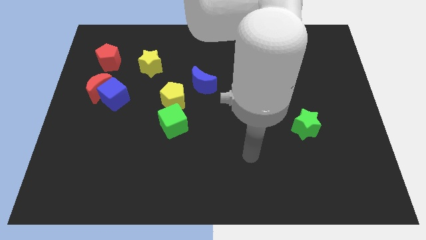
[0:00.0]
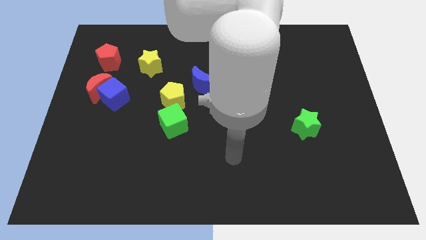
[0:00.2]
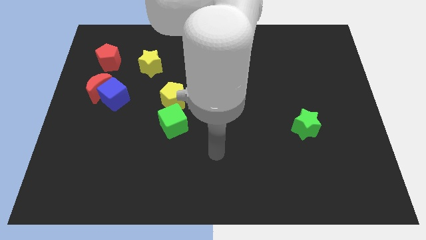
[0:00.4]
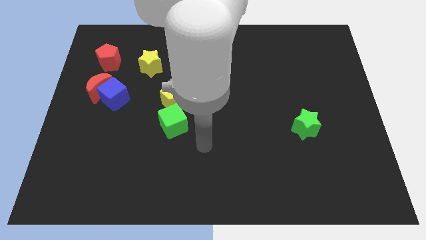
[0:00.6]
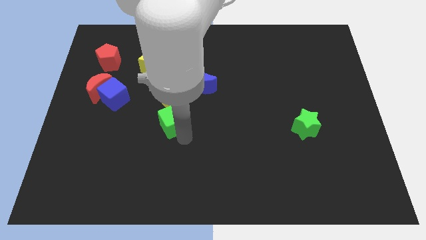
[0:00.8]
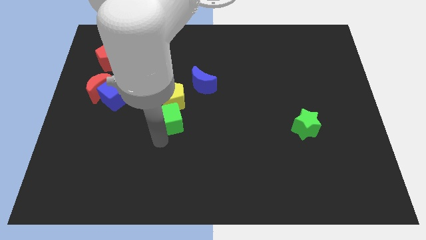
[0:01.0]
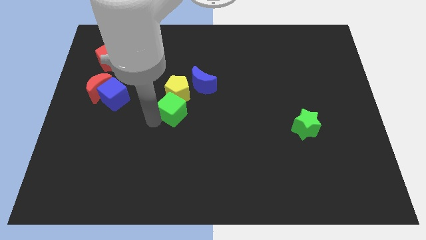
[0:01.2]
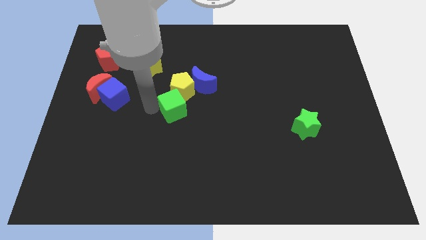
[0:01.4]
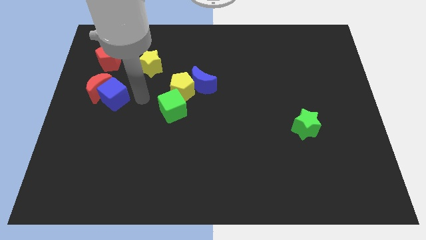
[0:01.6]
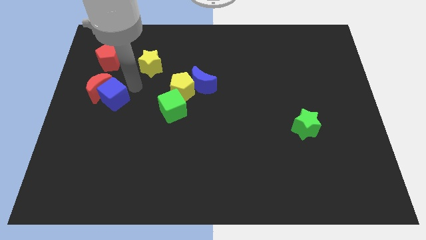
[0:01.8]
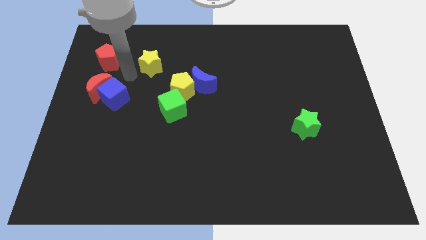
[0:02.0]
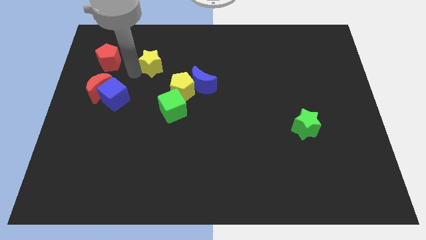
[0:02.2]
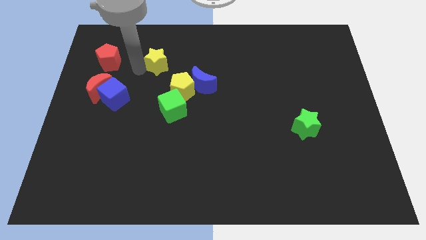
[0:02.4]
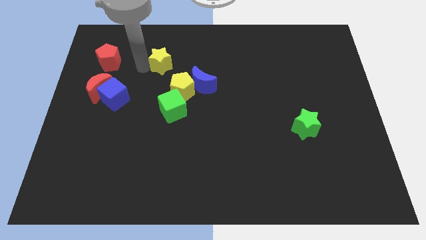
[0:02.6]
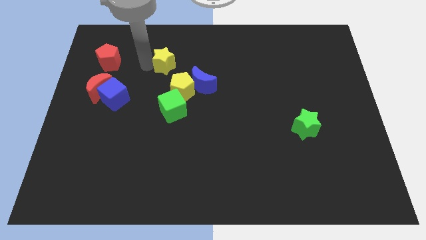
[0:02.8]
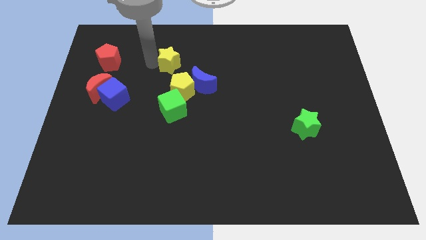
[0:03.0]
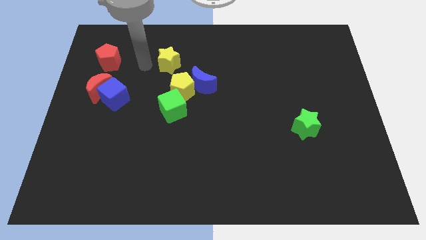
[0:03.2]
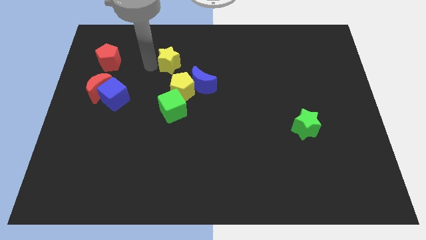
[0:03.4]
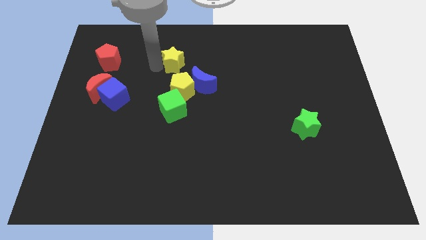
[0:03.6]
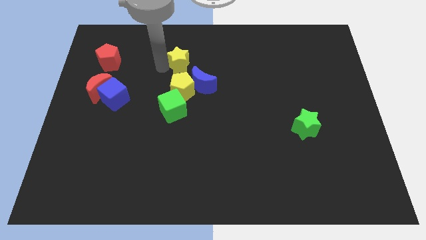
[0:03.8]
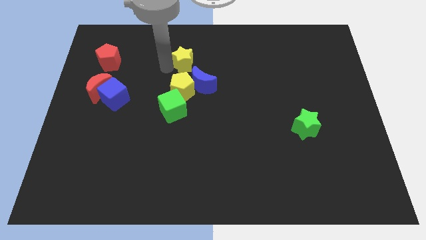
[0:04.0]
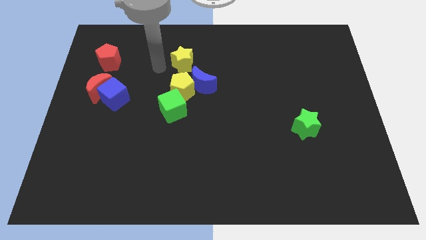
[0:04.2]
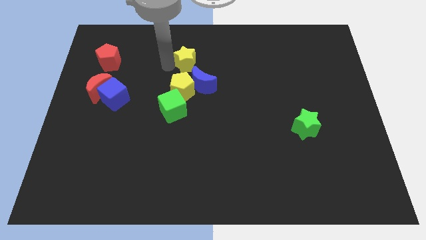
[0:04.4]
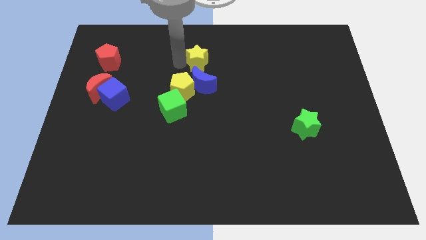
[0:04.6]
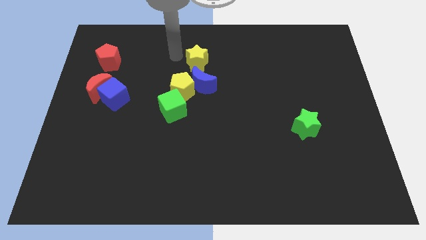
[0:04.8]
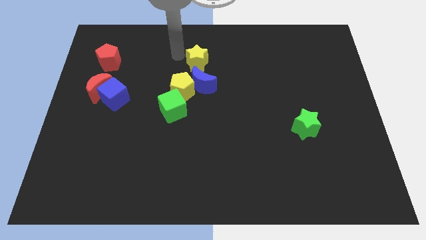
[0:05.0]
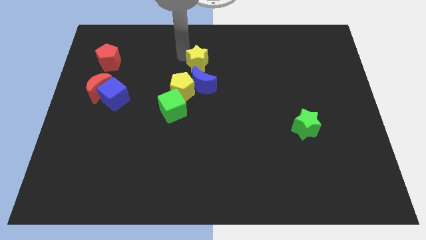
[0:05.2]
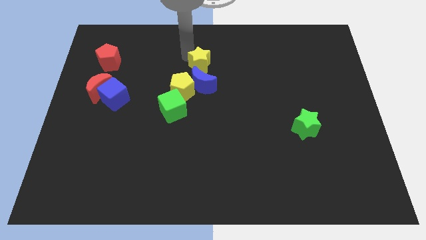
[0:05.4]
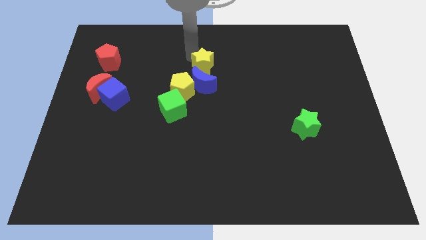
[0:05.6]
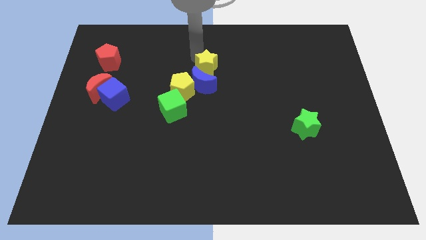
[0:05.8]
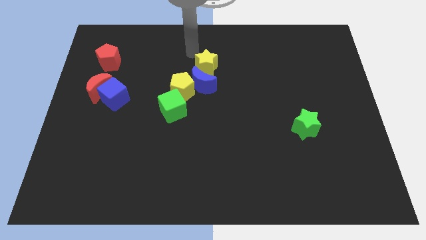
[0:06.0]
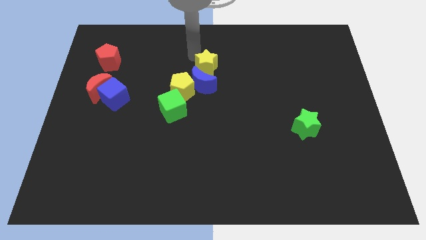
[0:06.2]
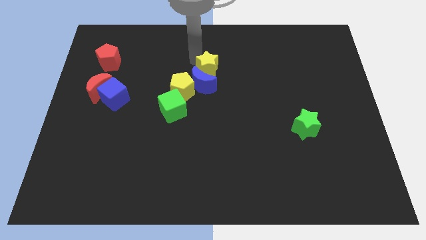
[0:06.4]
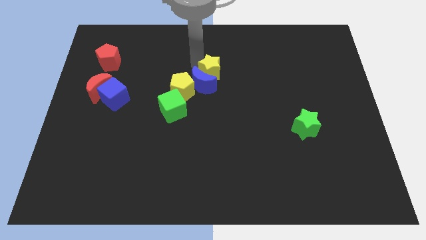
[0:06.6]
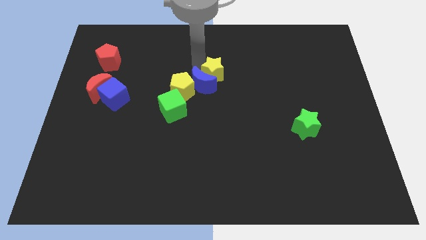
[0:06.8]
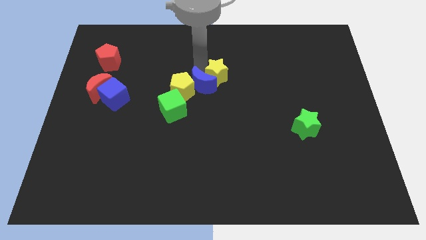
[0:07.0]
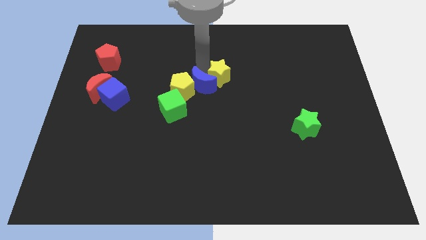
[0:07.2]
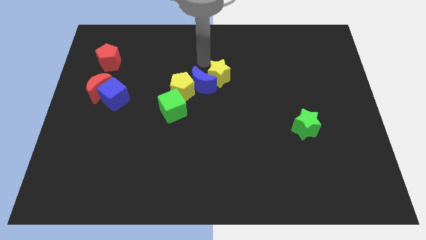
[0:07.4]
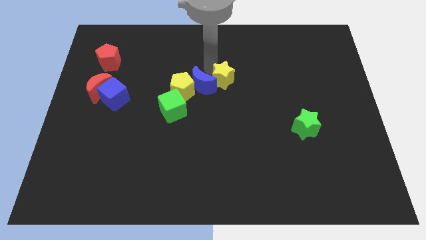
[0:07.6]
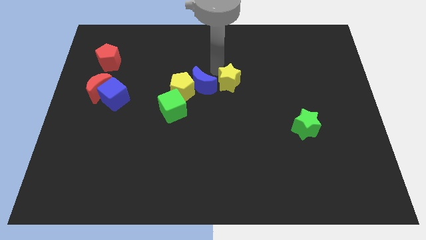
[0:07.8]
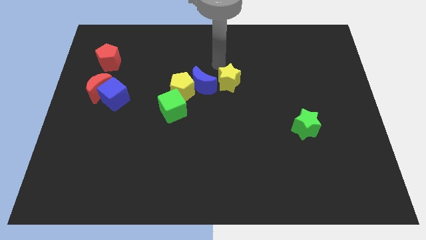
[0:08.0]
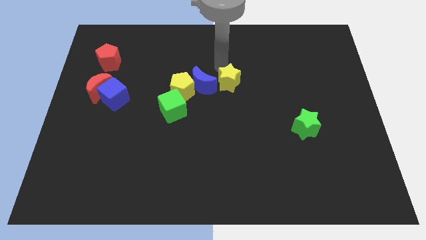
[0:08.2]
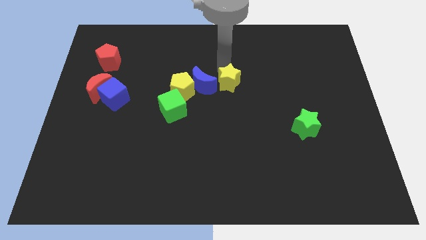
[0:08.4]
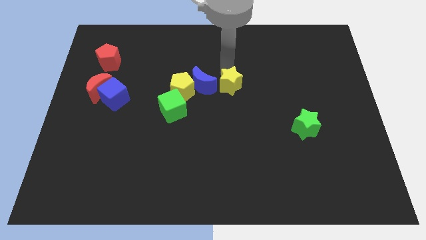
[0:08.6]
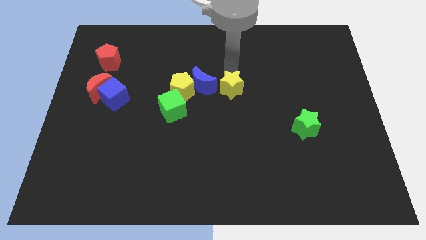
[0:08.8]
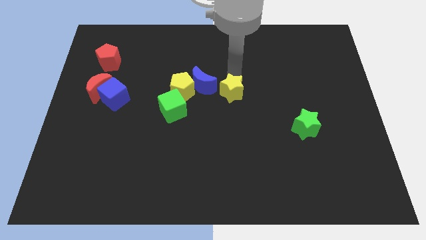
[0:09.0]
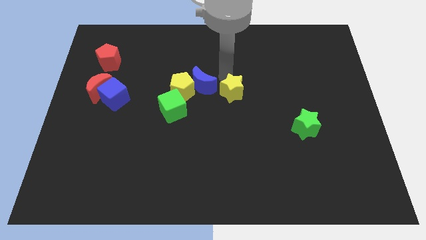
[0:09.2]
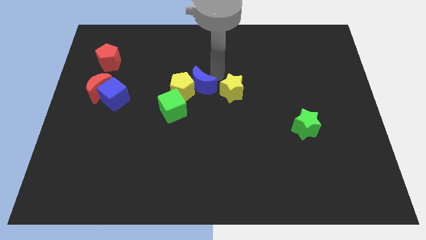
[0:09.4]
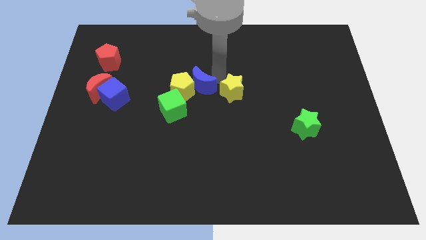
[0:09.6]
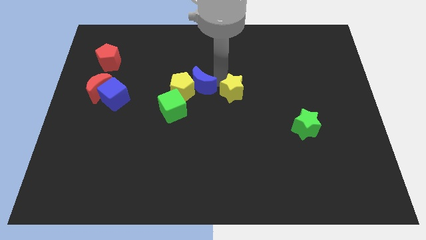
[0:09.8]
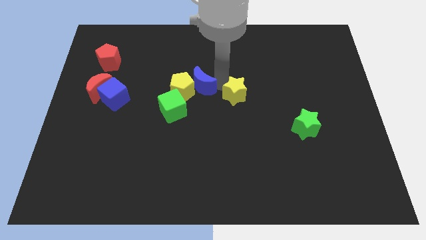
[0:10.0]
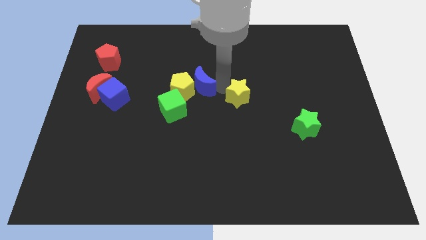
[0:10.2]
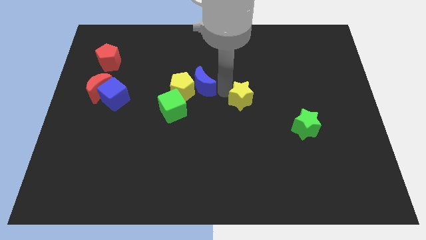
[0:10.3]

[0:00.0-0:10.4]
move the yellow star down and right

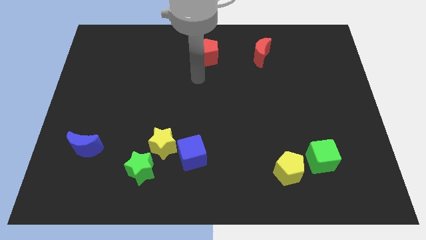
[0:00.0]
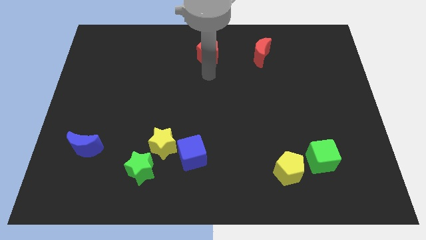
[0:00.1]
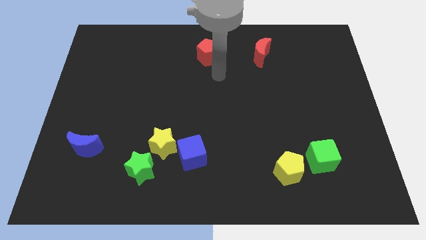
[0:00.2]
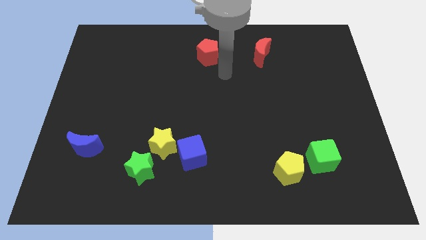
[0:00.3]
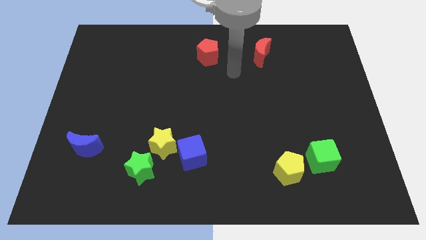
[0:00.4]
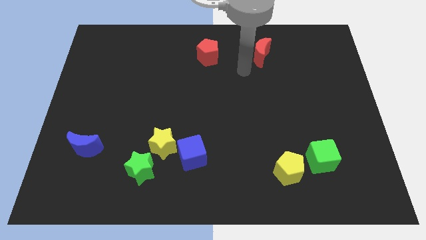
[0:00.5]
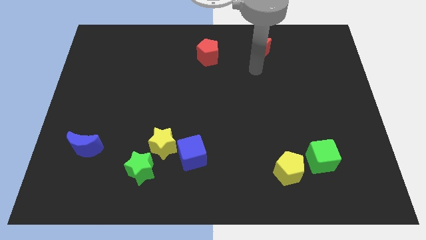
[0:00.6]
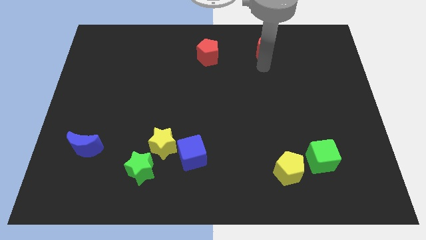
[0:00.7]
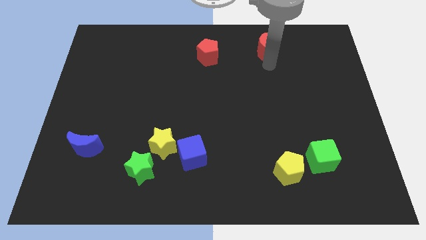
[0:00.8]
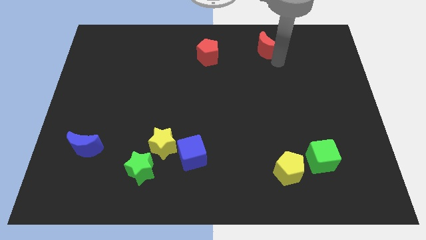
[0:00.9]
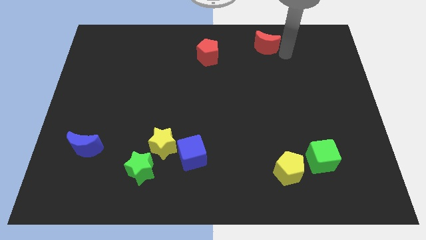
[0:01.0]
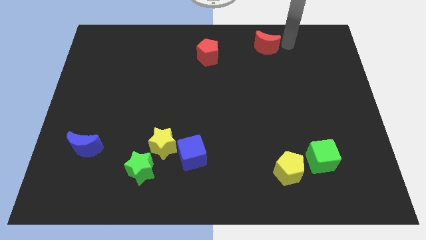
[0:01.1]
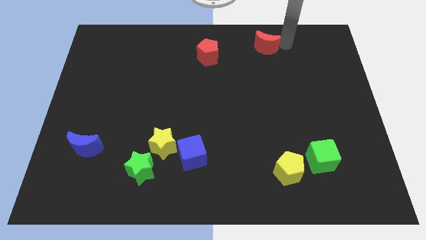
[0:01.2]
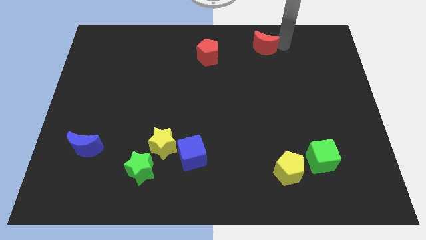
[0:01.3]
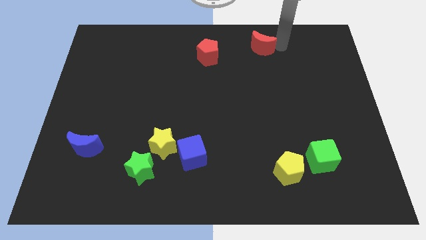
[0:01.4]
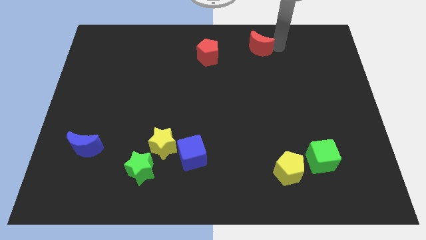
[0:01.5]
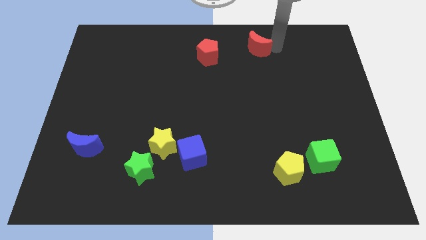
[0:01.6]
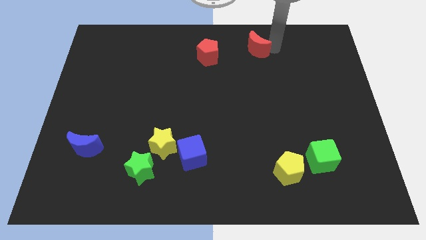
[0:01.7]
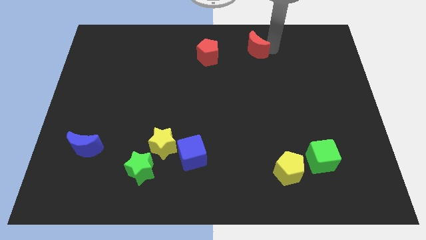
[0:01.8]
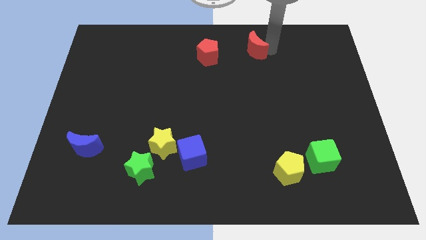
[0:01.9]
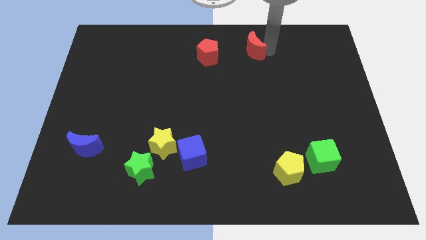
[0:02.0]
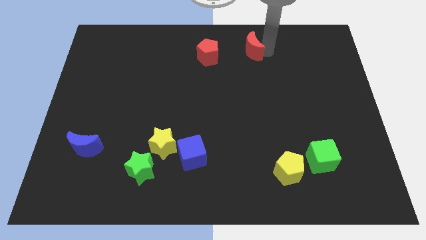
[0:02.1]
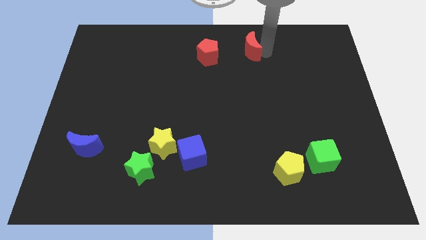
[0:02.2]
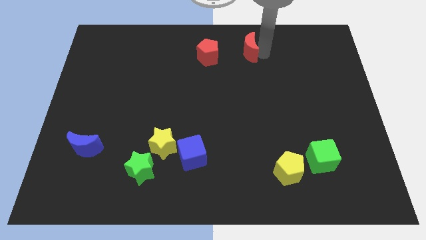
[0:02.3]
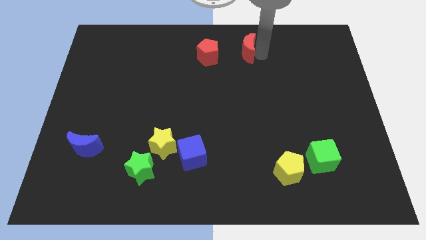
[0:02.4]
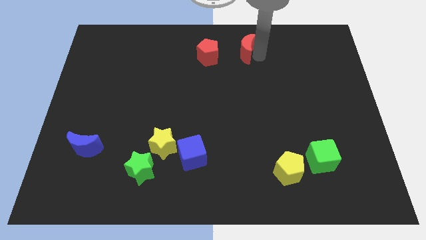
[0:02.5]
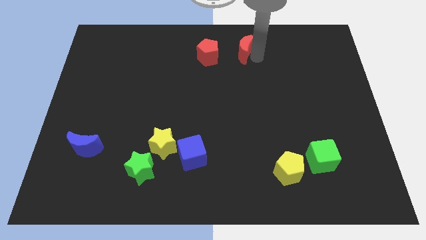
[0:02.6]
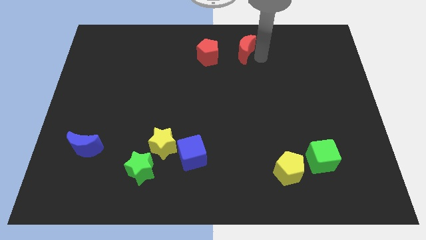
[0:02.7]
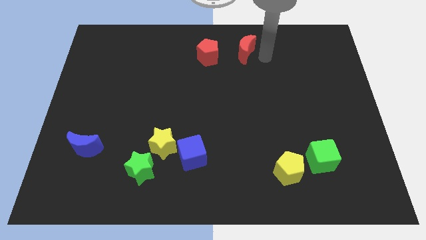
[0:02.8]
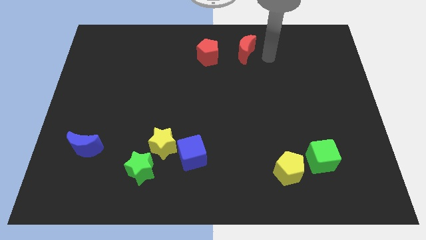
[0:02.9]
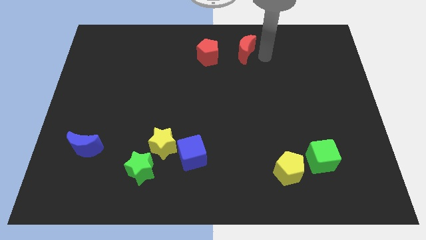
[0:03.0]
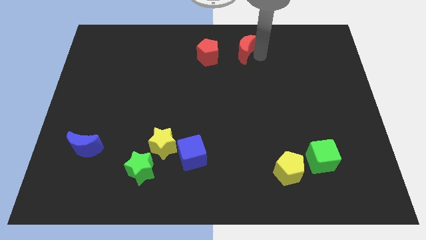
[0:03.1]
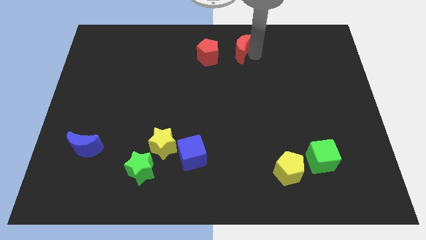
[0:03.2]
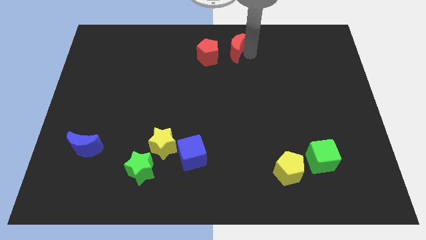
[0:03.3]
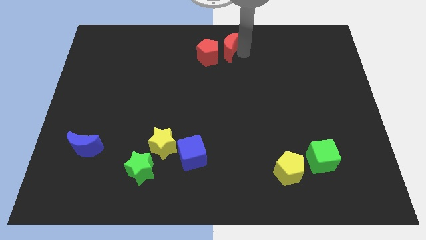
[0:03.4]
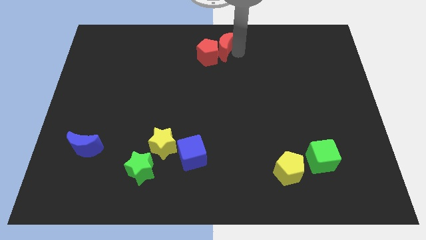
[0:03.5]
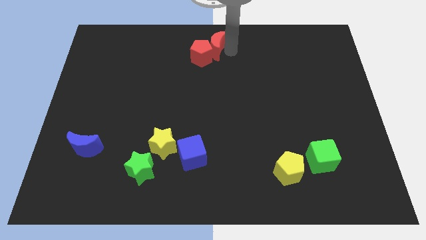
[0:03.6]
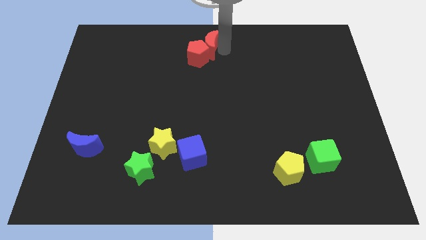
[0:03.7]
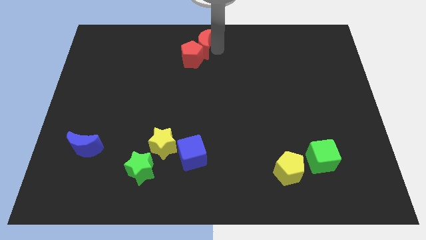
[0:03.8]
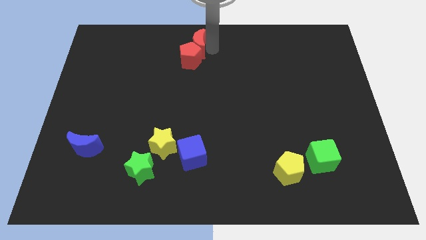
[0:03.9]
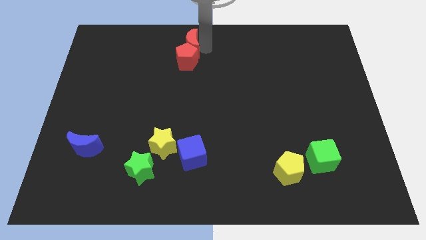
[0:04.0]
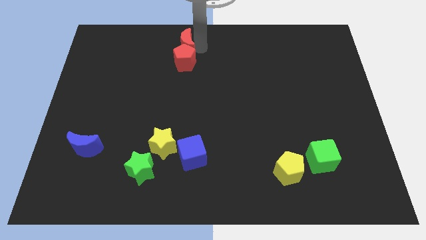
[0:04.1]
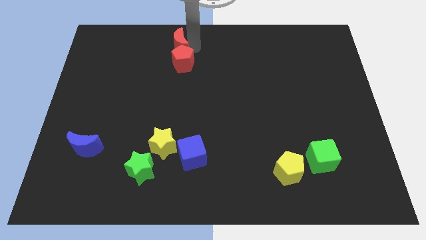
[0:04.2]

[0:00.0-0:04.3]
move the red moon left
